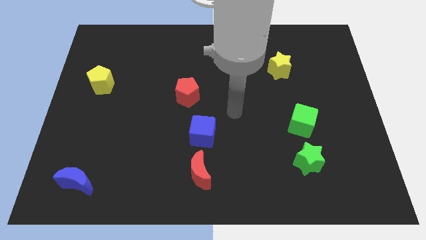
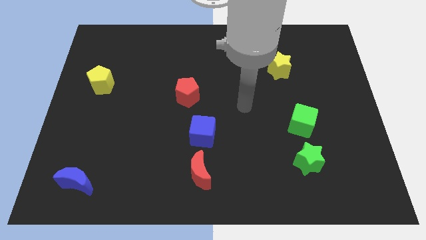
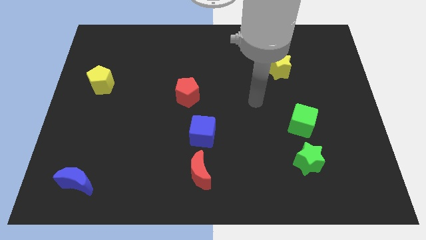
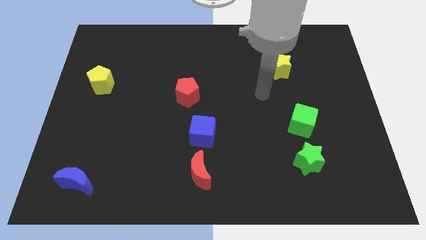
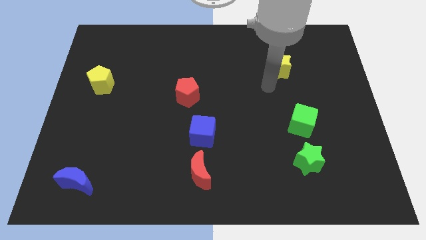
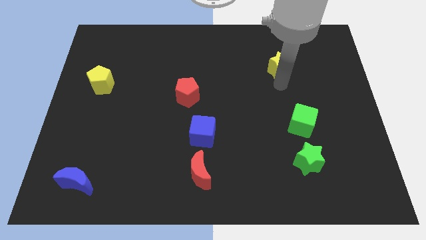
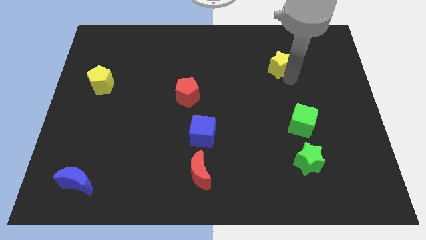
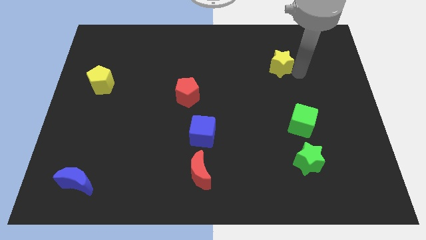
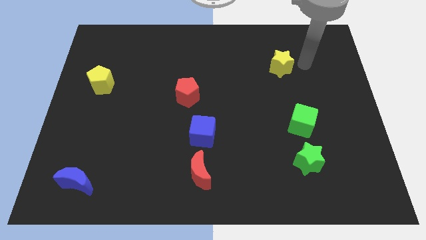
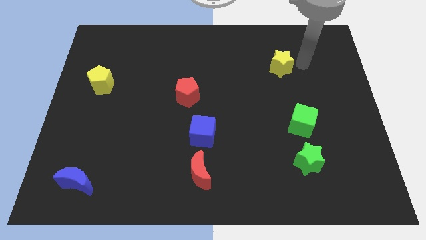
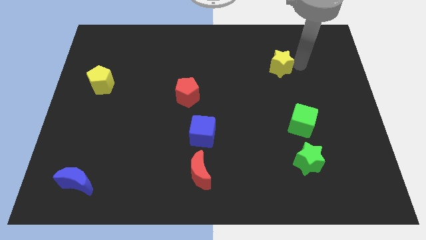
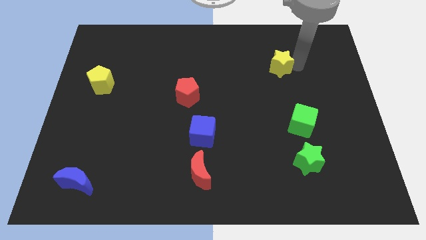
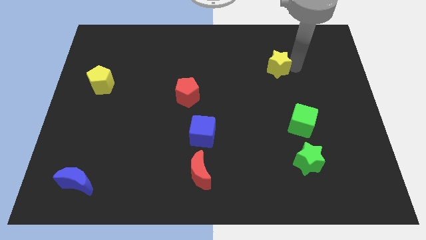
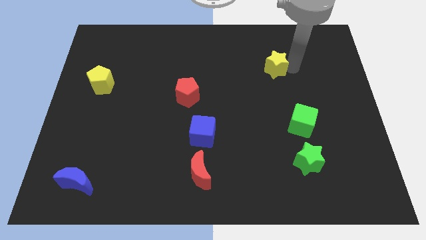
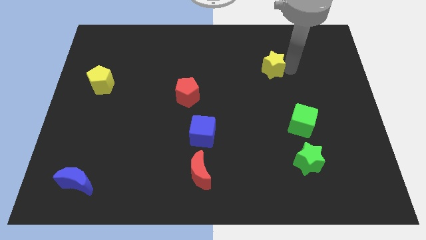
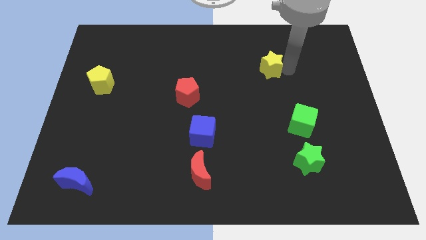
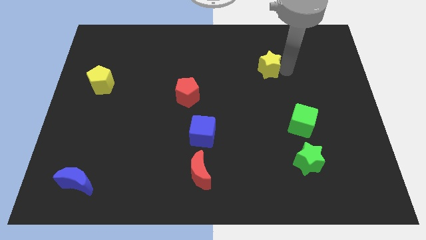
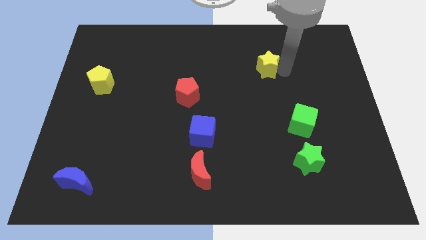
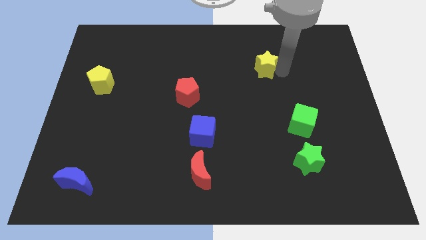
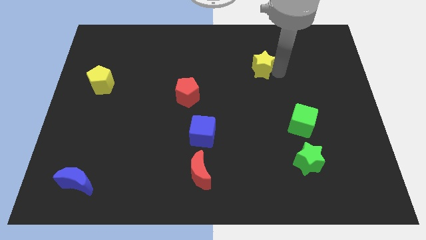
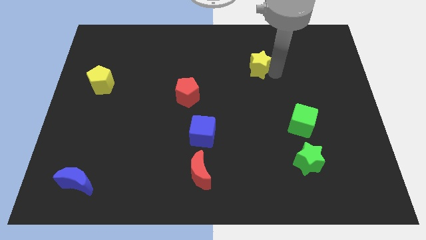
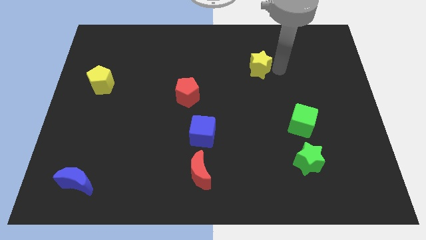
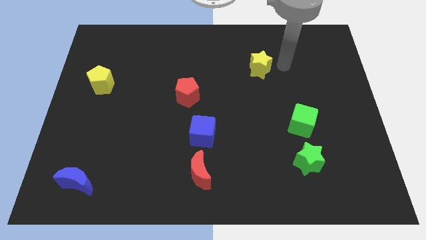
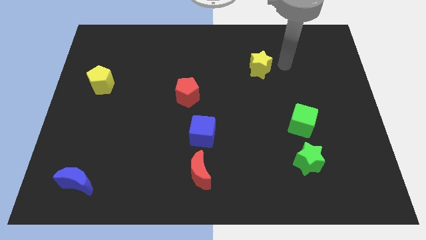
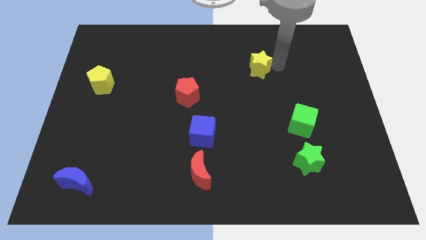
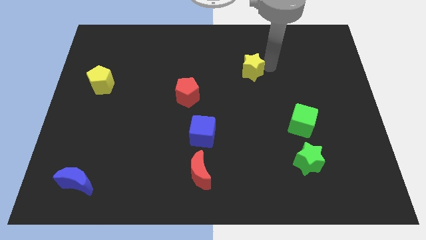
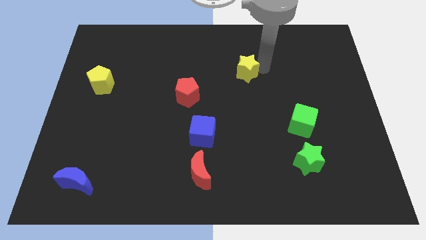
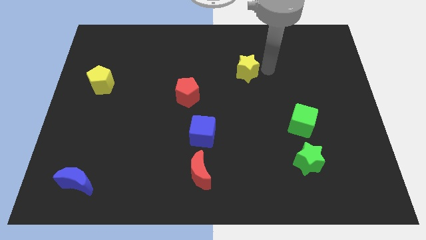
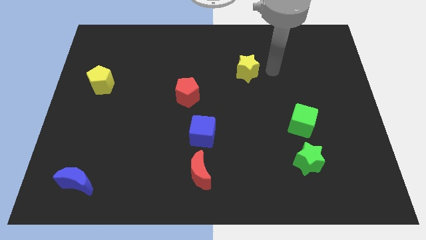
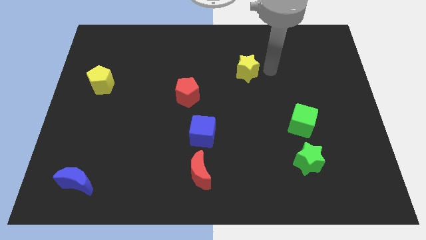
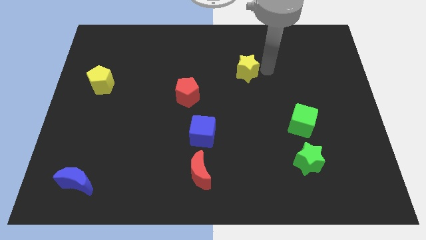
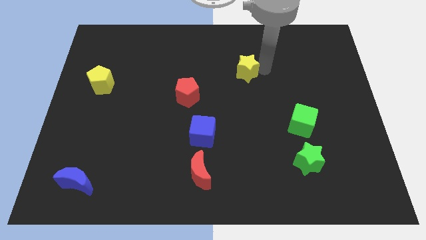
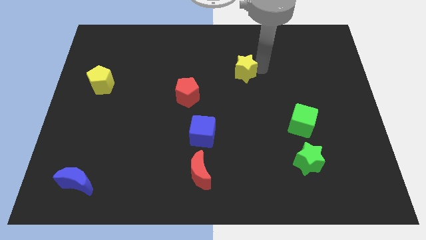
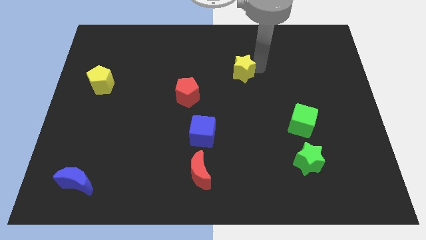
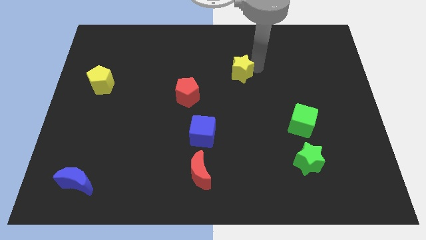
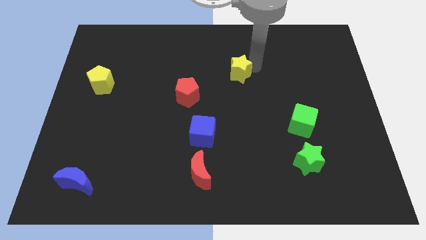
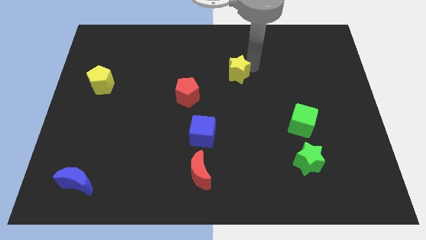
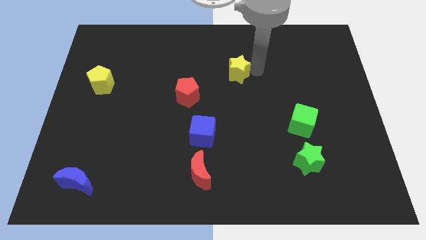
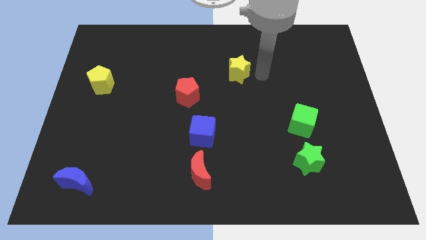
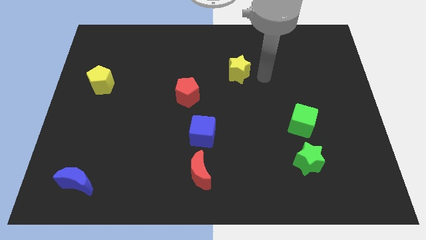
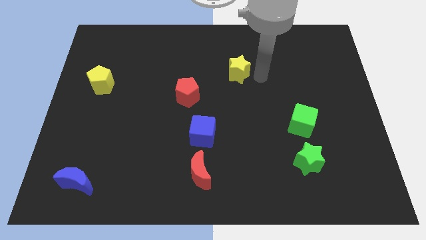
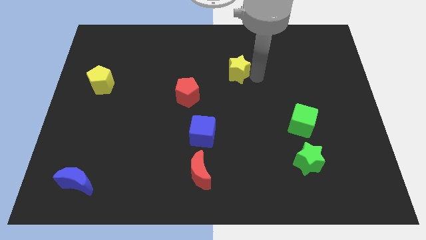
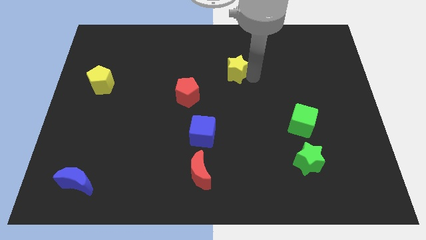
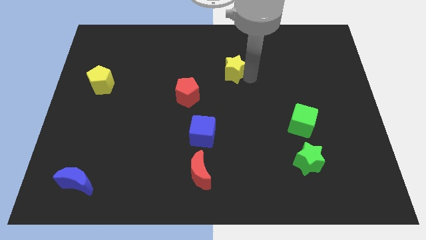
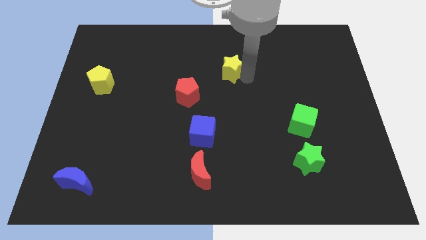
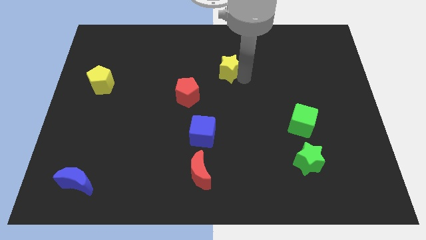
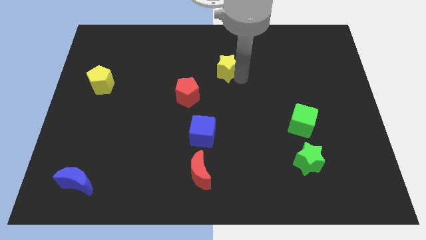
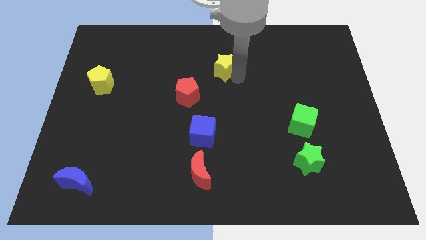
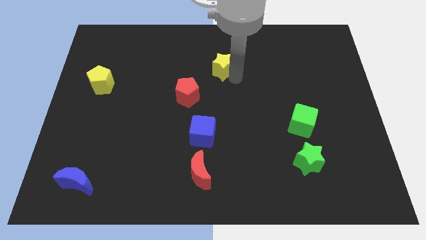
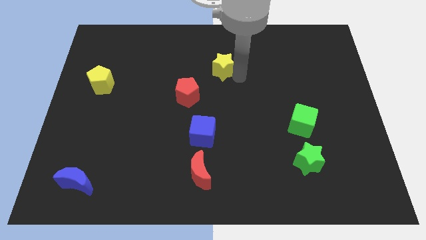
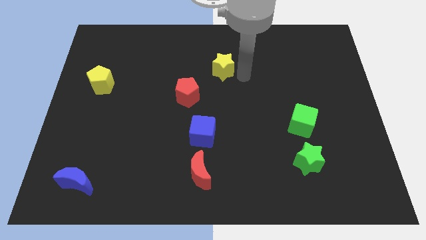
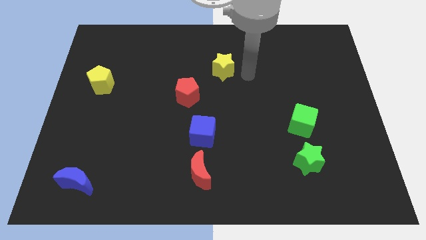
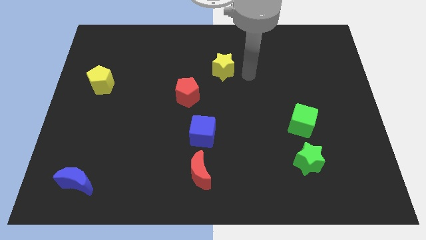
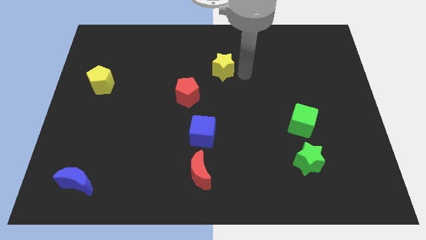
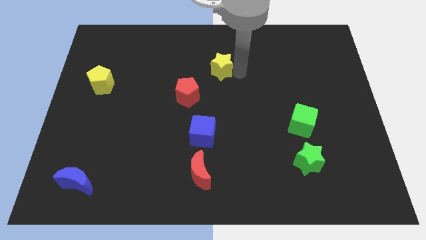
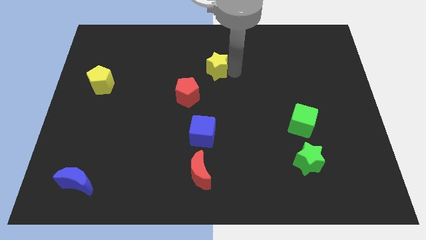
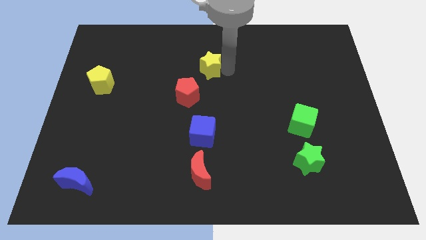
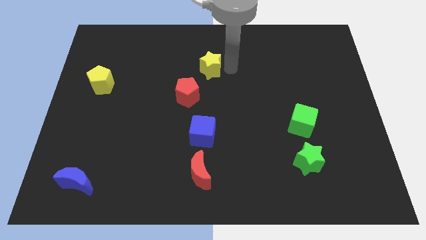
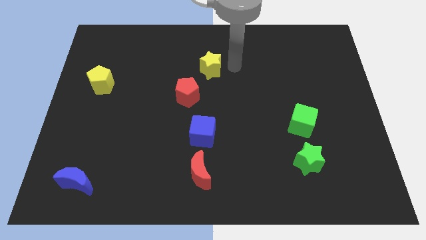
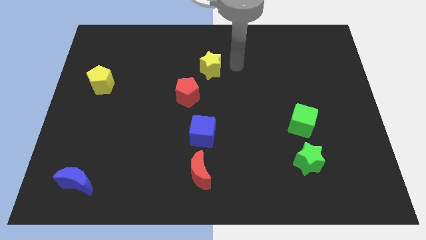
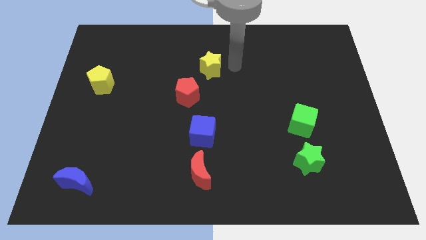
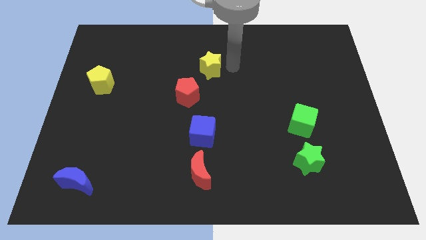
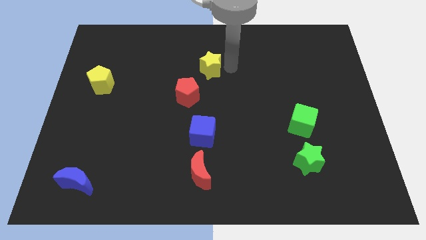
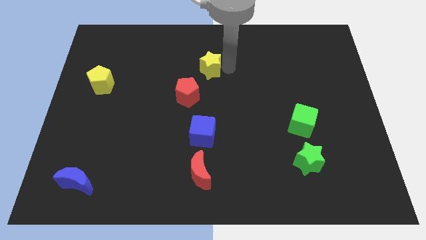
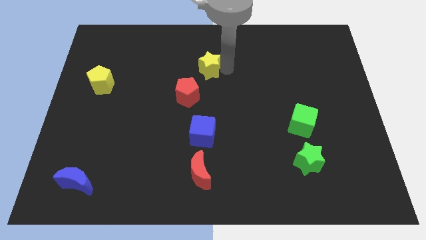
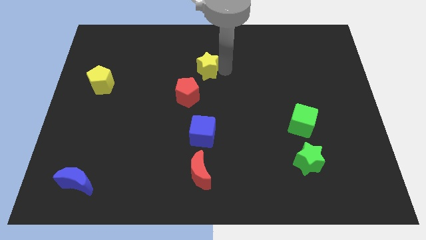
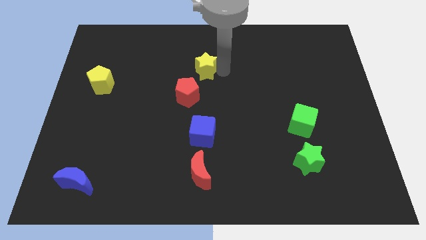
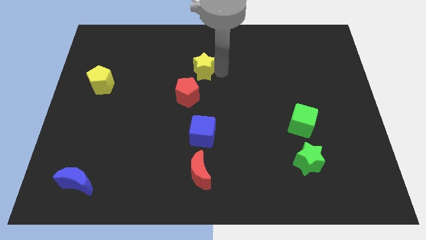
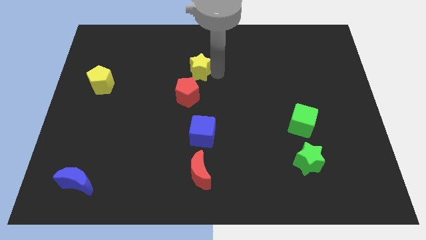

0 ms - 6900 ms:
move the yellow star left

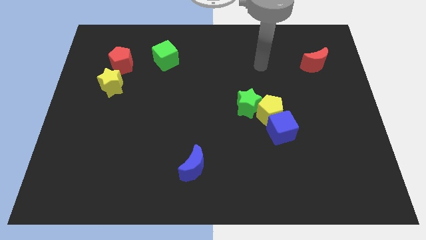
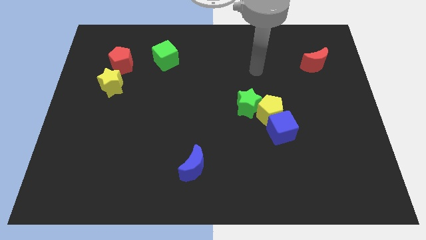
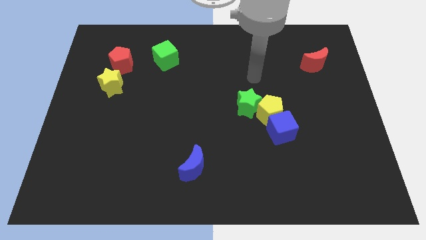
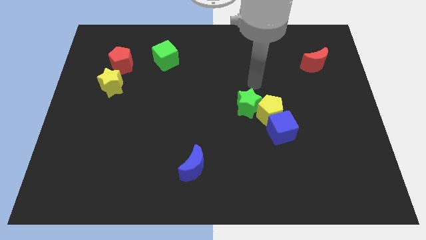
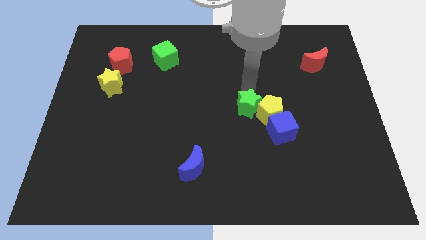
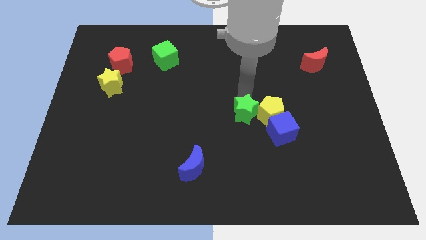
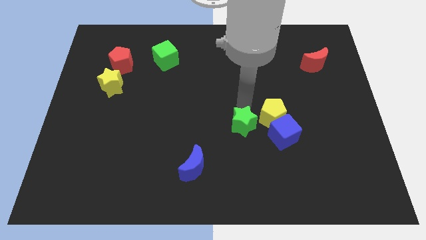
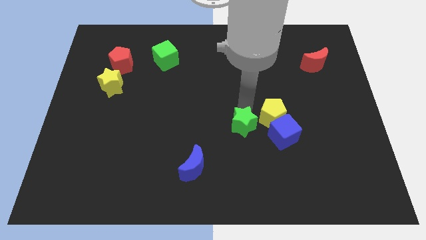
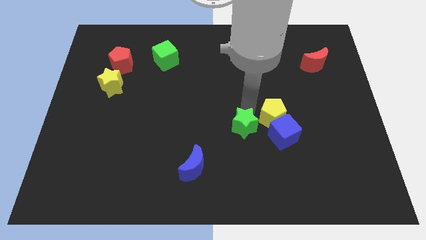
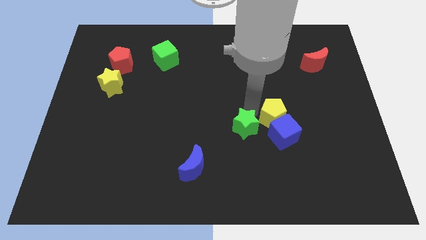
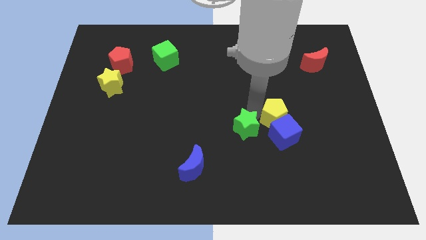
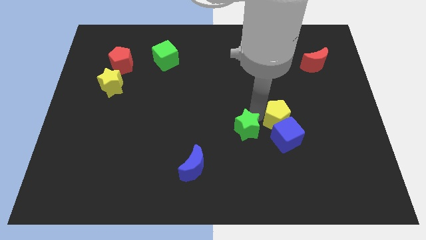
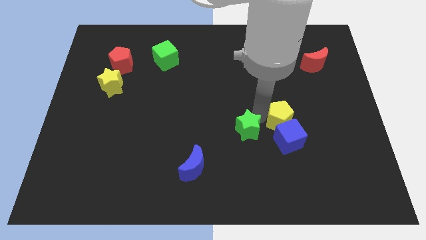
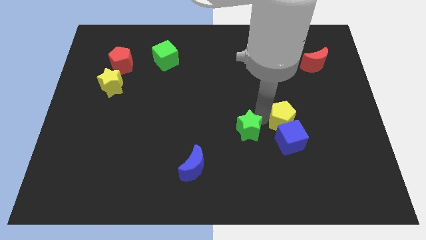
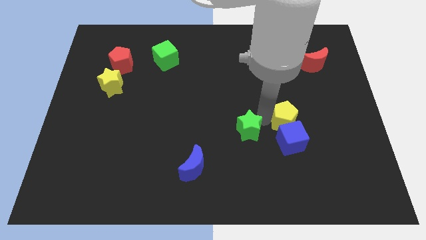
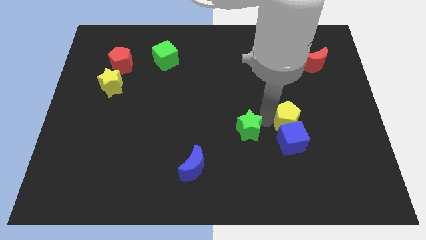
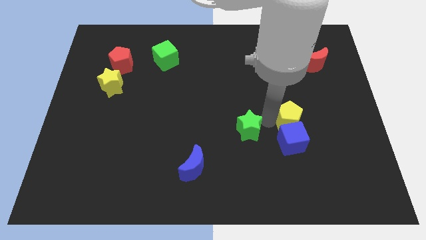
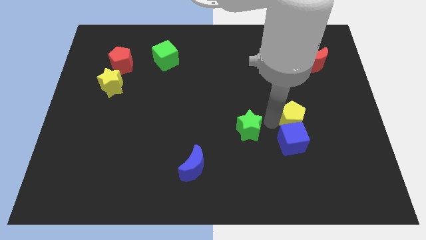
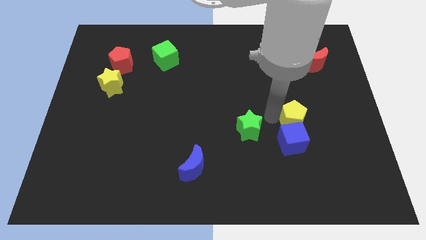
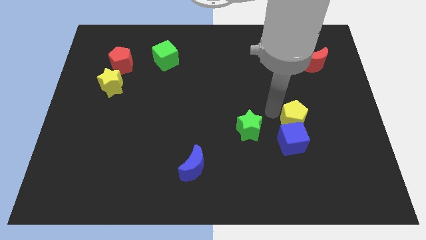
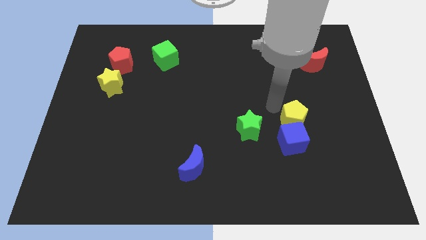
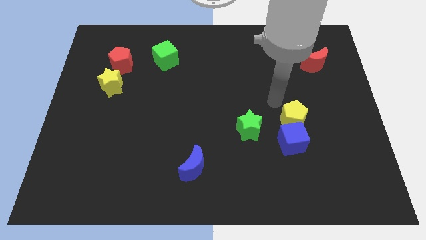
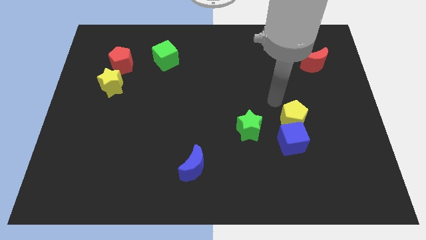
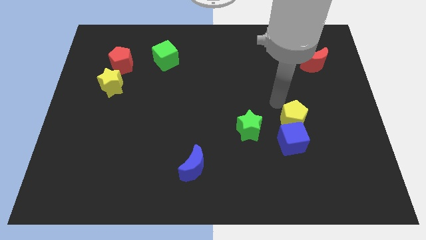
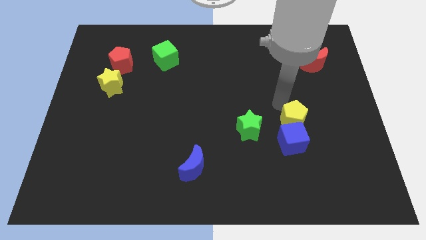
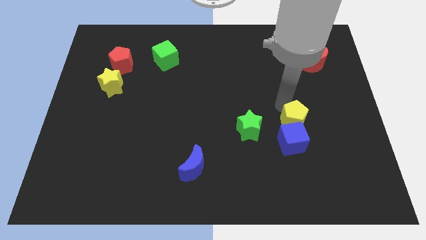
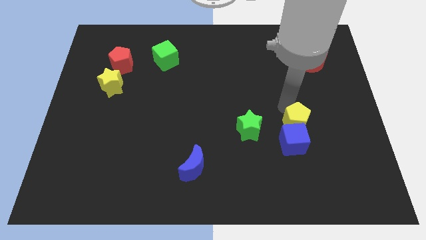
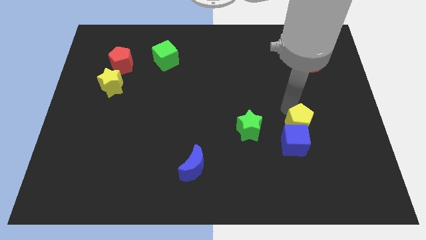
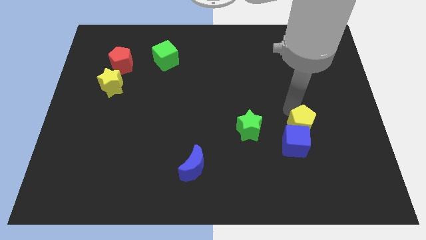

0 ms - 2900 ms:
slightly slide the yellow pentagon down and to the right diagonally
